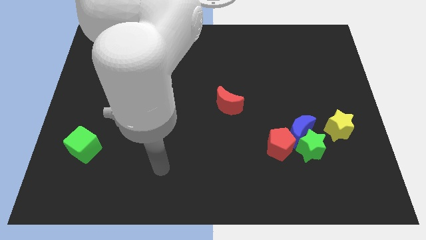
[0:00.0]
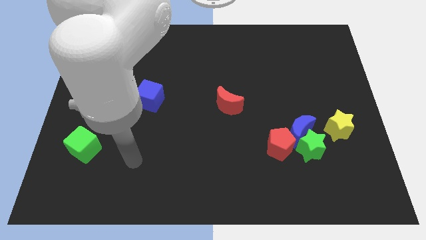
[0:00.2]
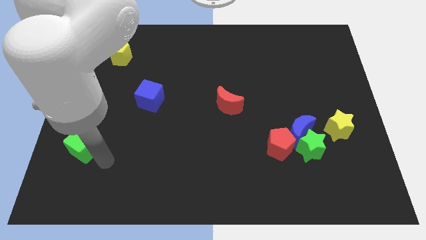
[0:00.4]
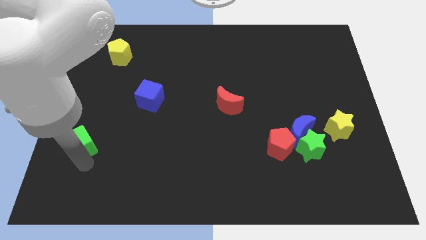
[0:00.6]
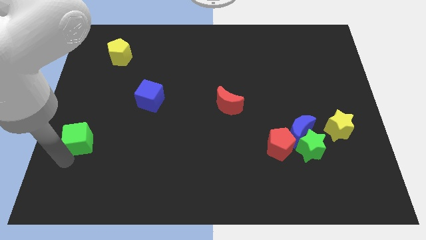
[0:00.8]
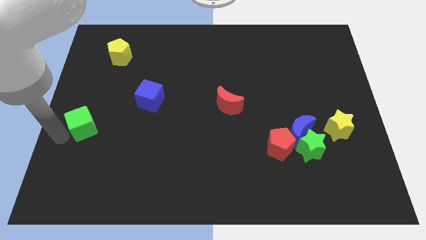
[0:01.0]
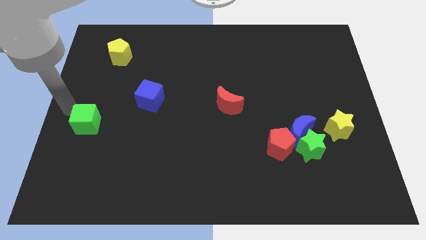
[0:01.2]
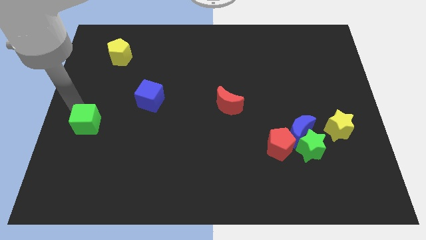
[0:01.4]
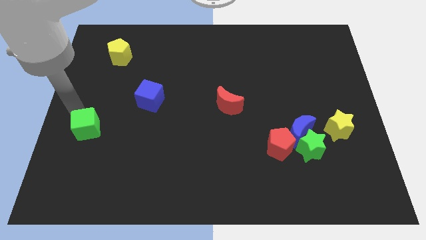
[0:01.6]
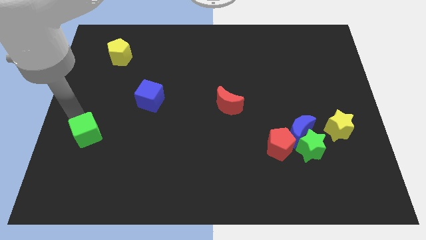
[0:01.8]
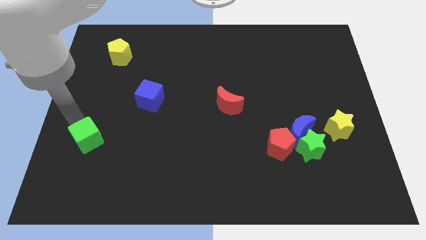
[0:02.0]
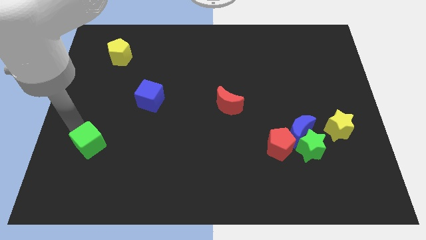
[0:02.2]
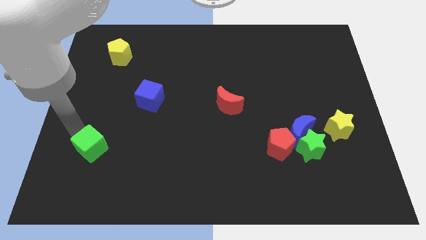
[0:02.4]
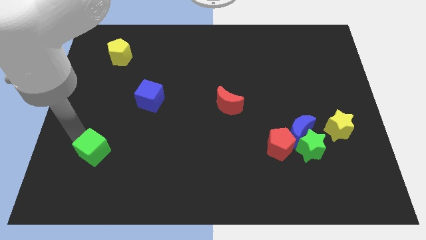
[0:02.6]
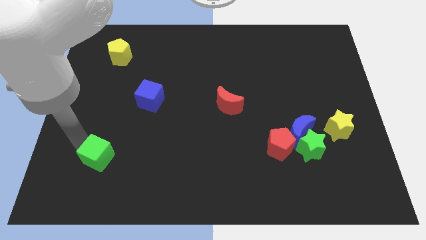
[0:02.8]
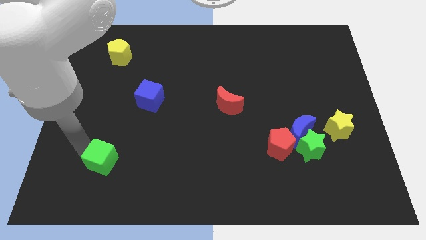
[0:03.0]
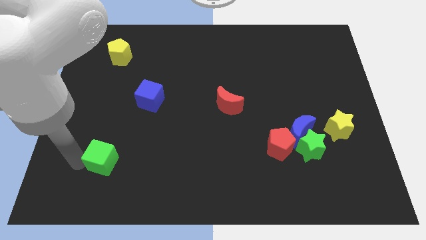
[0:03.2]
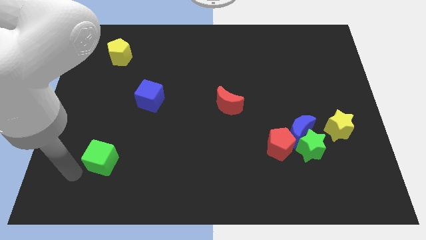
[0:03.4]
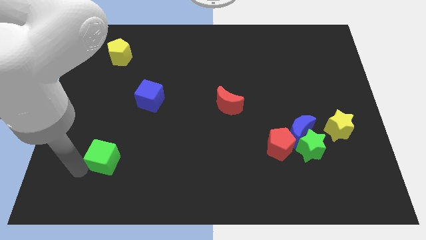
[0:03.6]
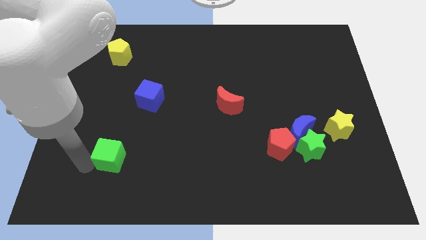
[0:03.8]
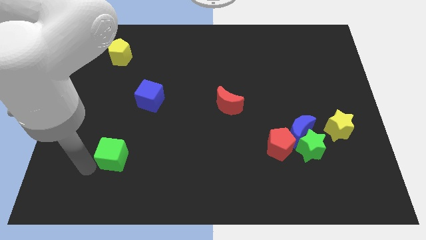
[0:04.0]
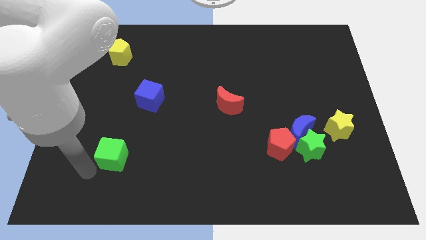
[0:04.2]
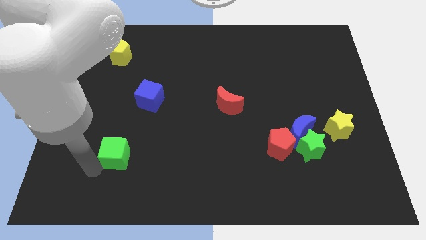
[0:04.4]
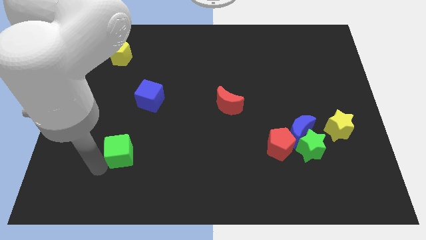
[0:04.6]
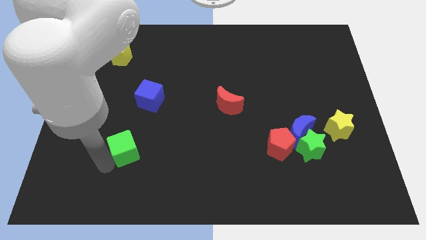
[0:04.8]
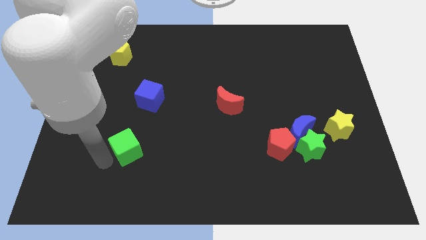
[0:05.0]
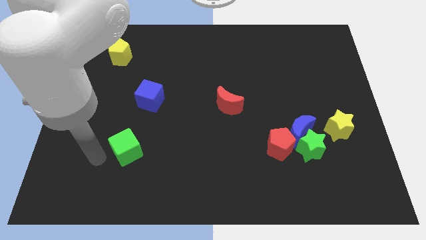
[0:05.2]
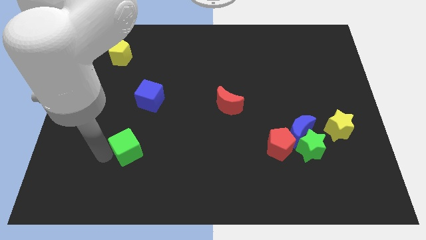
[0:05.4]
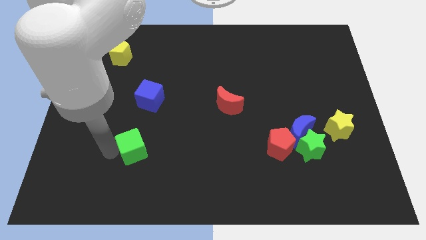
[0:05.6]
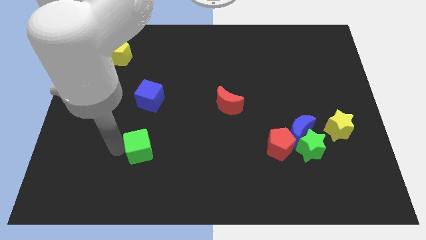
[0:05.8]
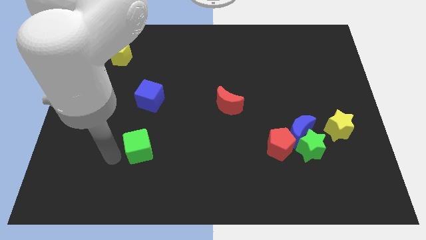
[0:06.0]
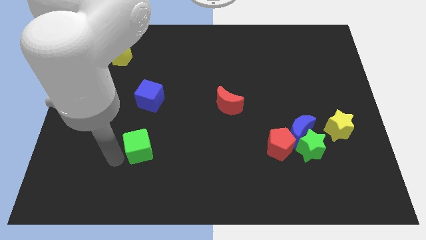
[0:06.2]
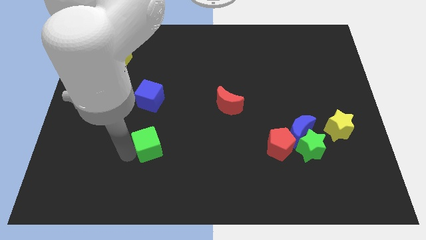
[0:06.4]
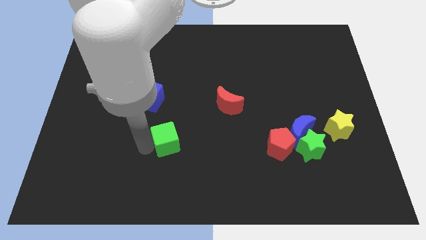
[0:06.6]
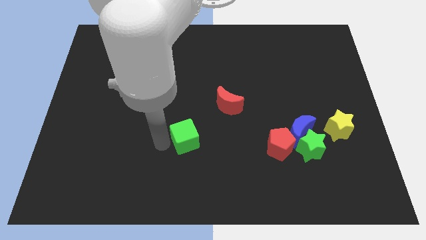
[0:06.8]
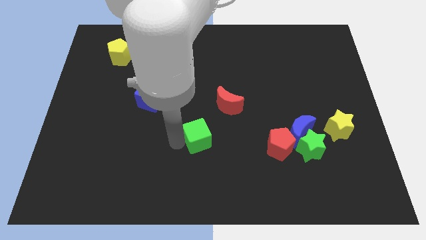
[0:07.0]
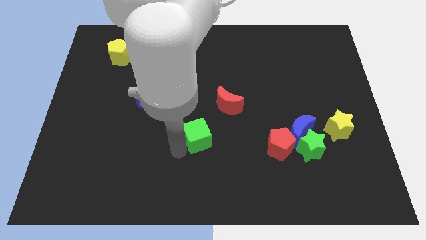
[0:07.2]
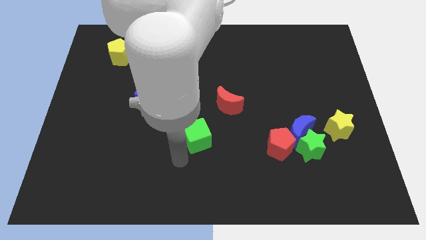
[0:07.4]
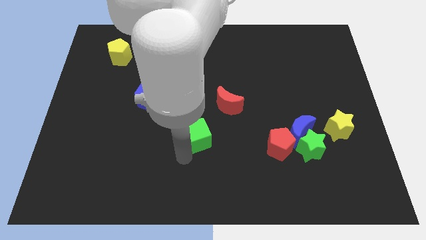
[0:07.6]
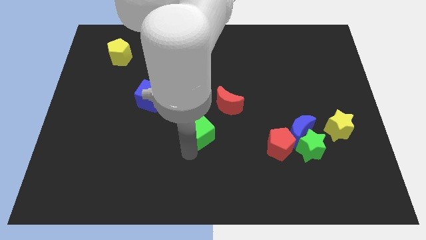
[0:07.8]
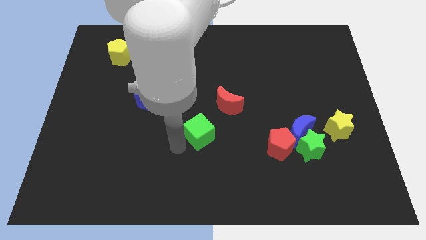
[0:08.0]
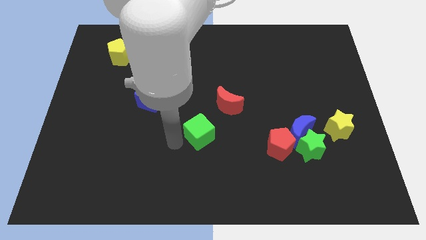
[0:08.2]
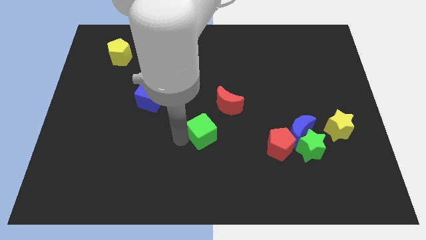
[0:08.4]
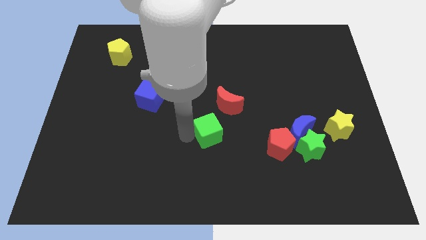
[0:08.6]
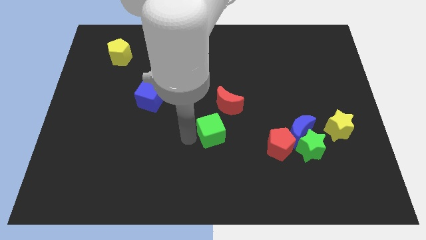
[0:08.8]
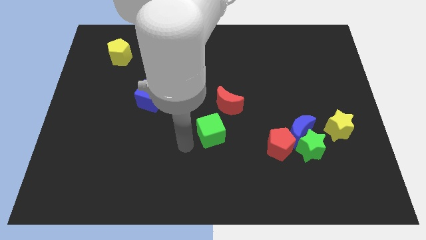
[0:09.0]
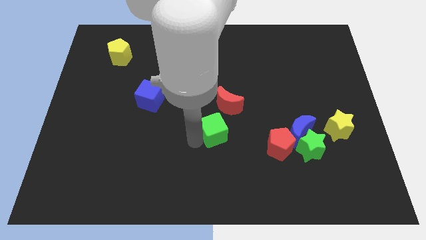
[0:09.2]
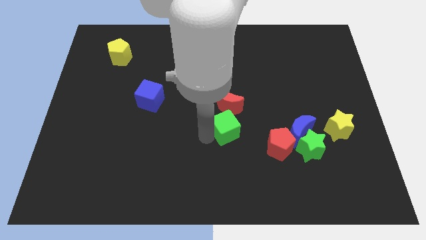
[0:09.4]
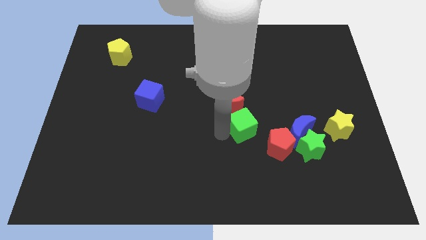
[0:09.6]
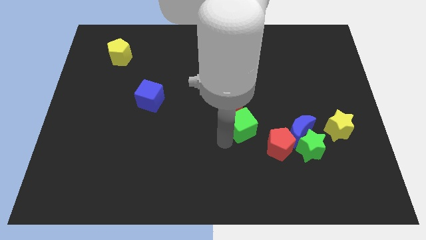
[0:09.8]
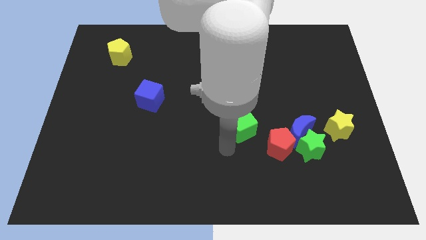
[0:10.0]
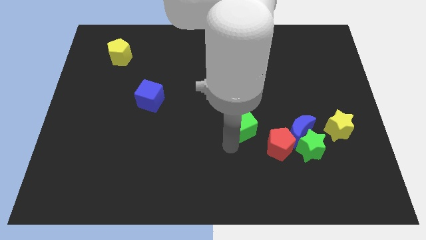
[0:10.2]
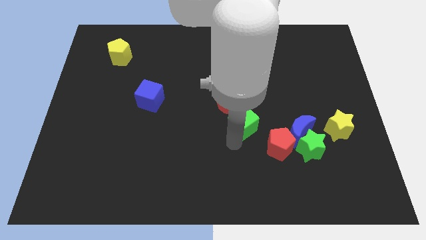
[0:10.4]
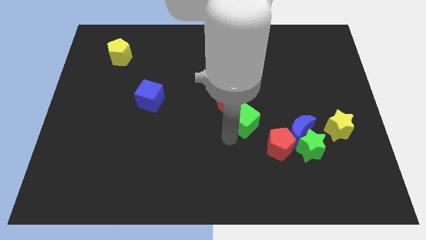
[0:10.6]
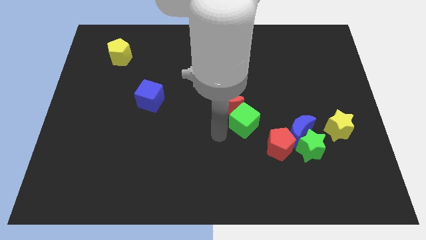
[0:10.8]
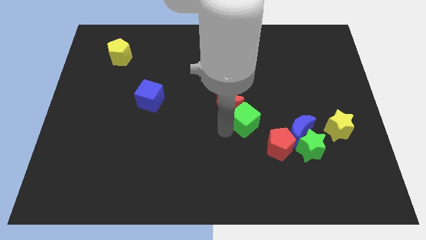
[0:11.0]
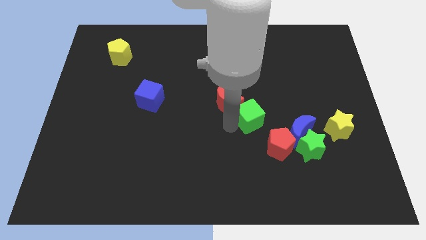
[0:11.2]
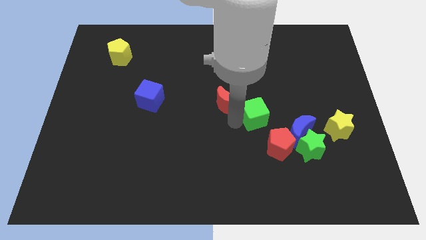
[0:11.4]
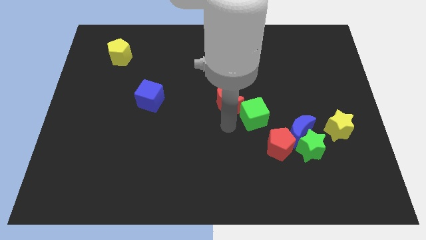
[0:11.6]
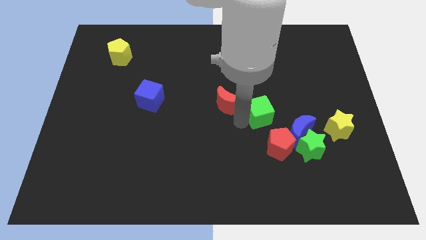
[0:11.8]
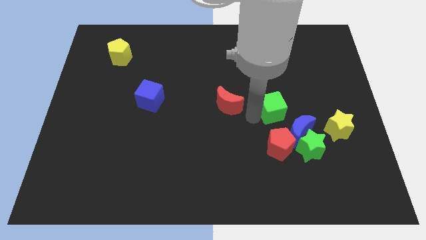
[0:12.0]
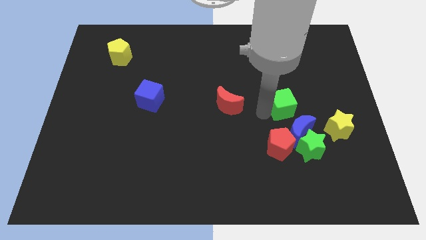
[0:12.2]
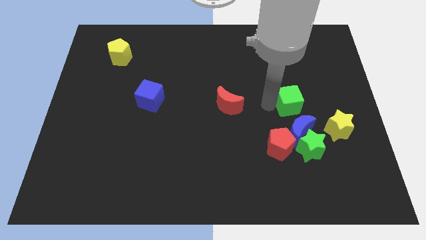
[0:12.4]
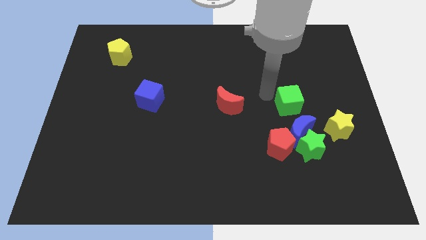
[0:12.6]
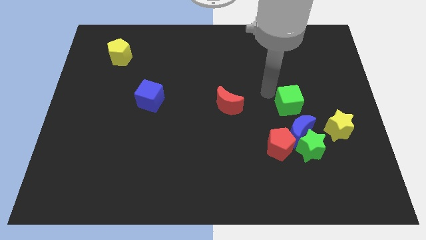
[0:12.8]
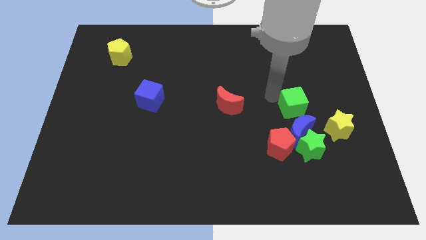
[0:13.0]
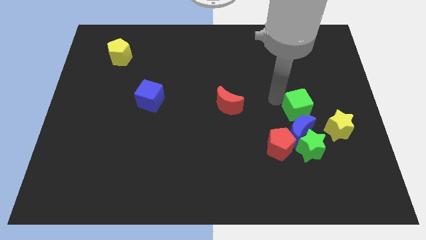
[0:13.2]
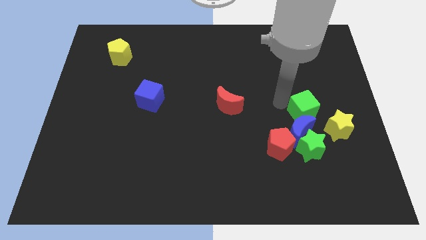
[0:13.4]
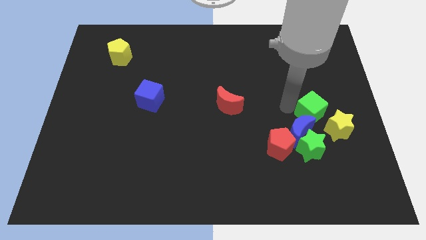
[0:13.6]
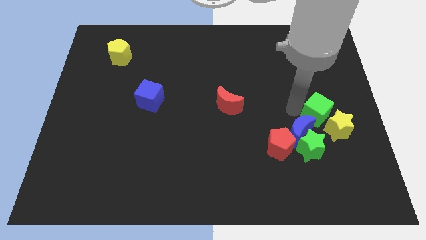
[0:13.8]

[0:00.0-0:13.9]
push the green cube towards the yellow star
